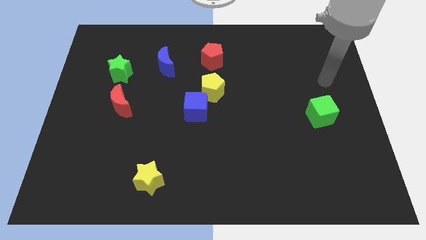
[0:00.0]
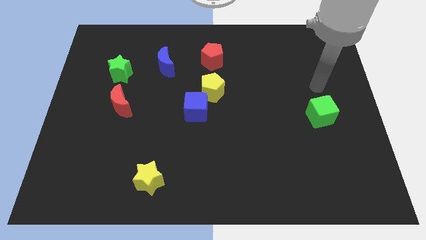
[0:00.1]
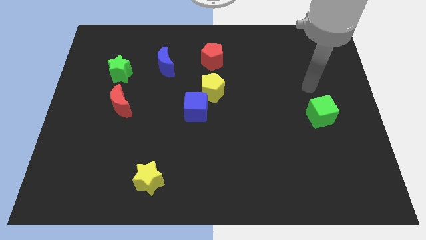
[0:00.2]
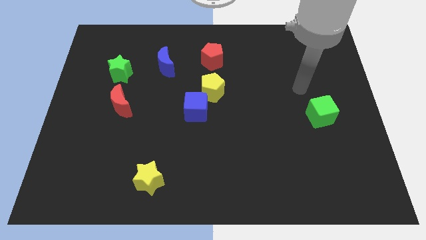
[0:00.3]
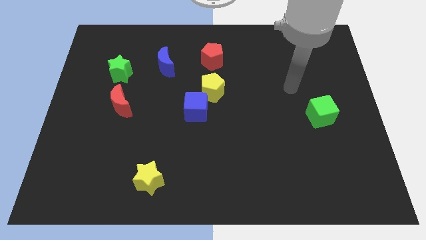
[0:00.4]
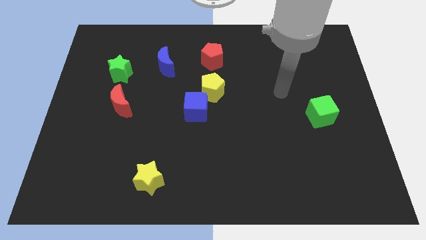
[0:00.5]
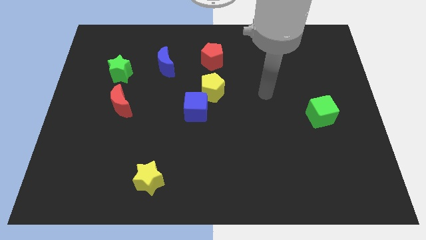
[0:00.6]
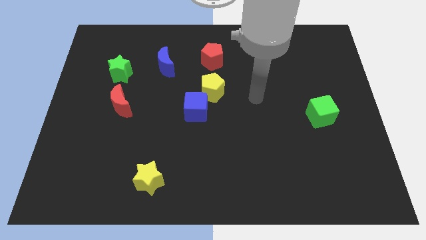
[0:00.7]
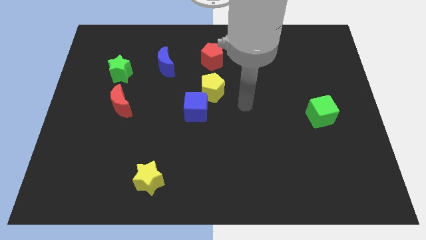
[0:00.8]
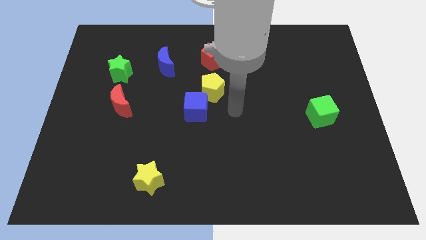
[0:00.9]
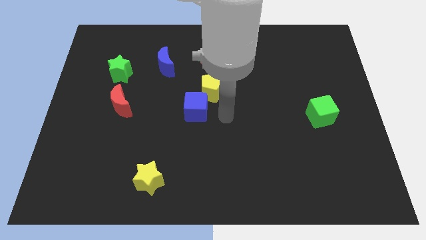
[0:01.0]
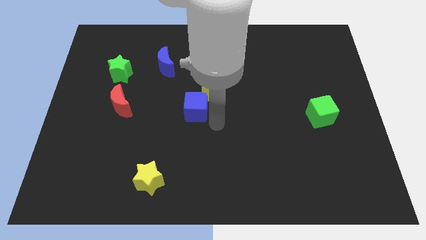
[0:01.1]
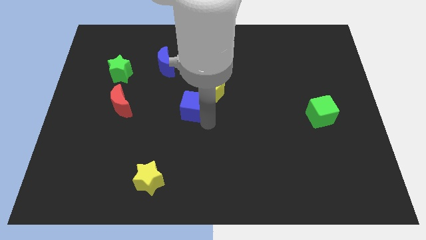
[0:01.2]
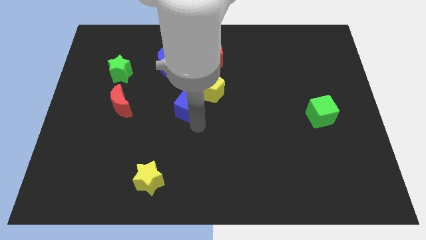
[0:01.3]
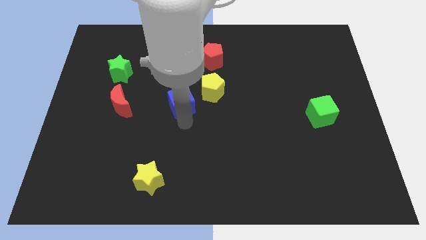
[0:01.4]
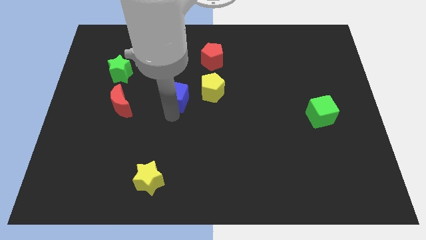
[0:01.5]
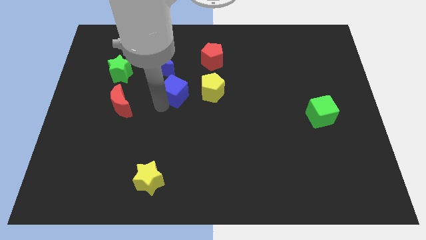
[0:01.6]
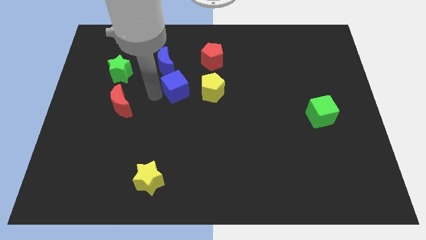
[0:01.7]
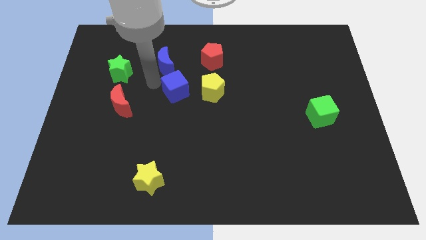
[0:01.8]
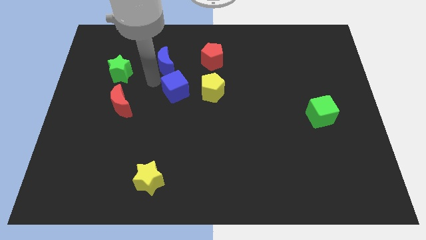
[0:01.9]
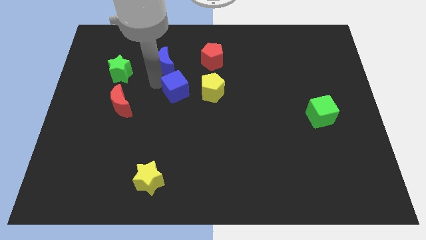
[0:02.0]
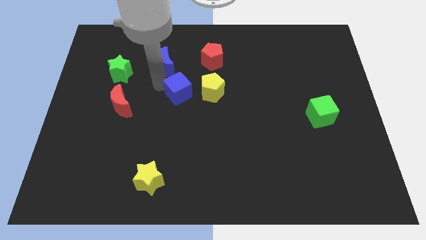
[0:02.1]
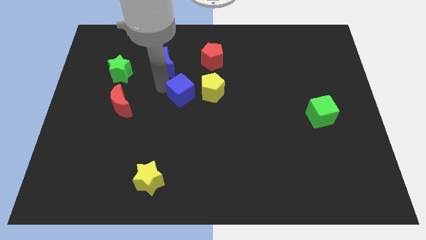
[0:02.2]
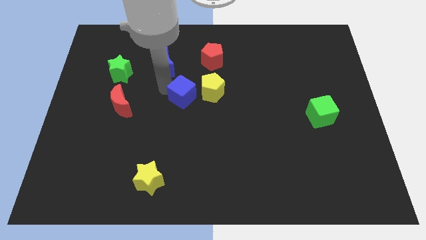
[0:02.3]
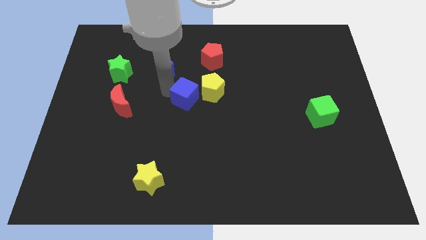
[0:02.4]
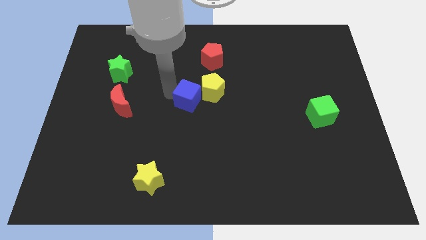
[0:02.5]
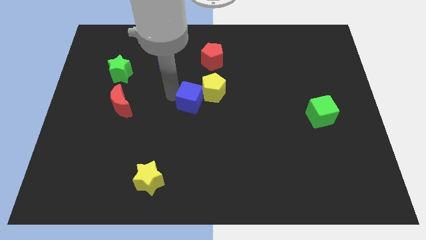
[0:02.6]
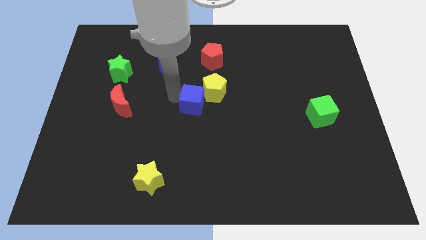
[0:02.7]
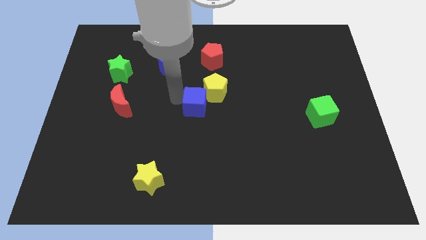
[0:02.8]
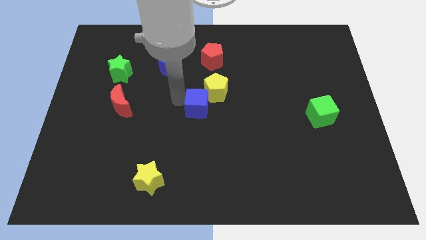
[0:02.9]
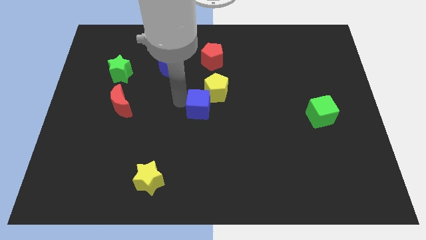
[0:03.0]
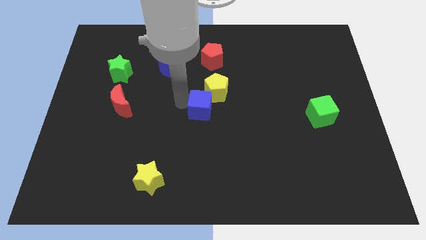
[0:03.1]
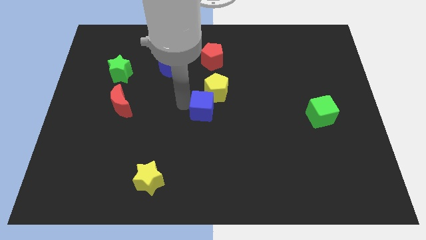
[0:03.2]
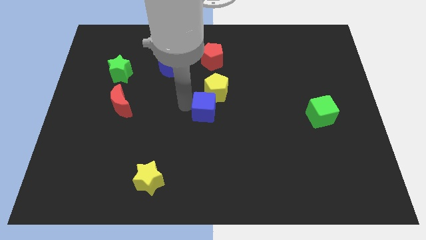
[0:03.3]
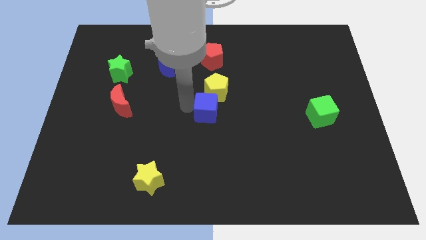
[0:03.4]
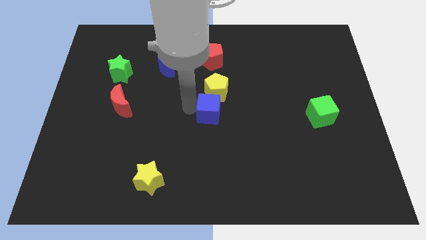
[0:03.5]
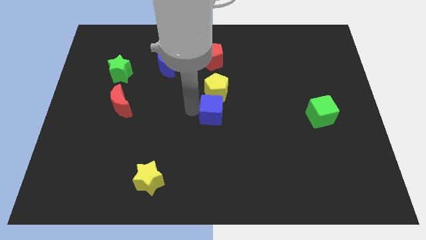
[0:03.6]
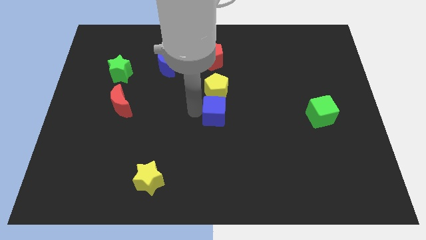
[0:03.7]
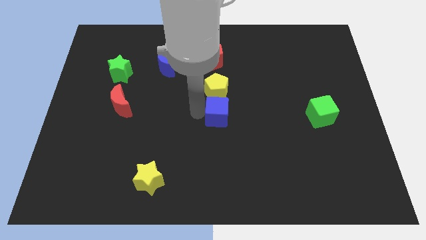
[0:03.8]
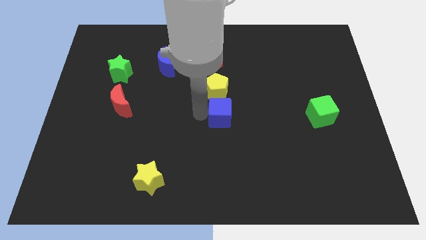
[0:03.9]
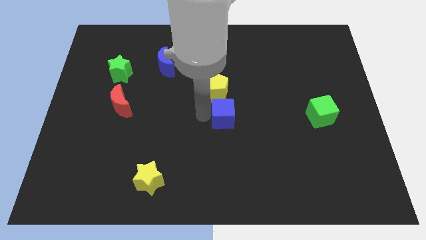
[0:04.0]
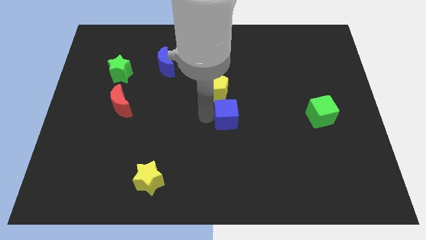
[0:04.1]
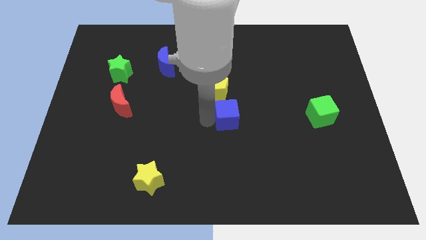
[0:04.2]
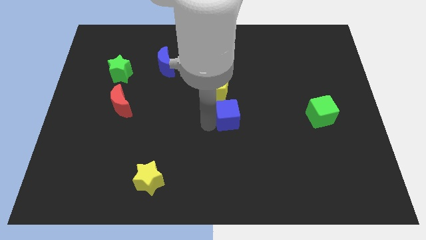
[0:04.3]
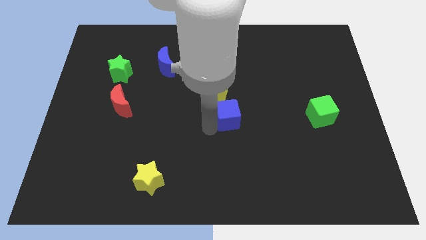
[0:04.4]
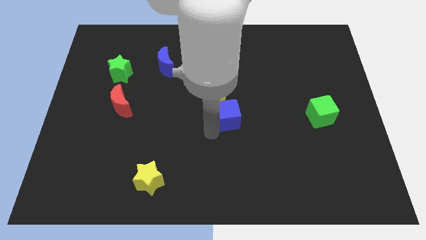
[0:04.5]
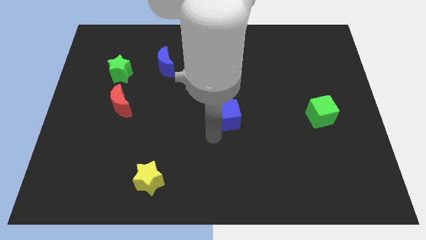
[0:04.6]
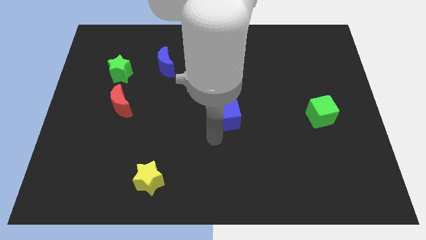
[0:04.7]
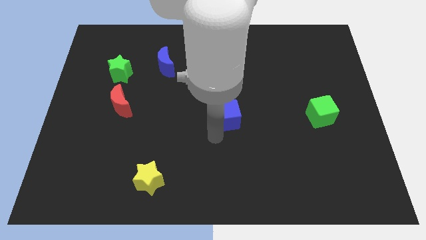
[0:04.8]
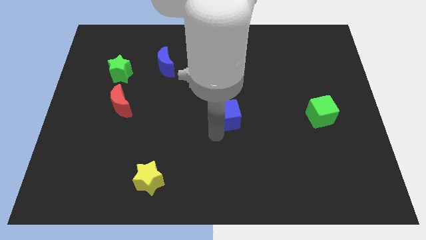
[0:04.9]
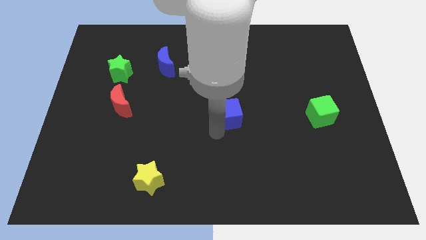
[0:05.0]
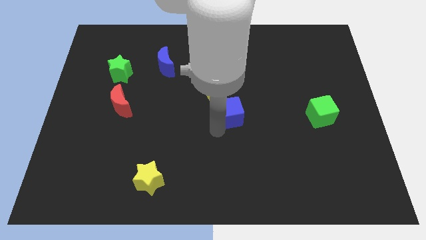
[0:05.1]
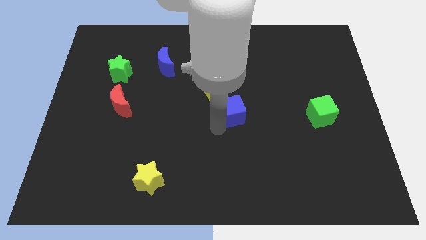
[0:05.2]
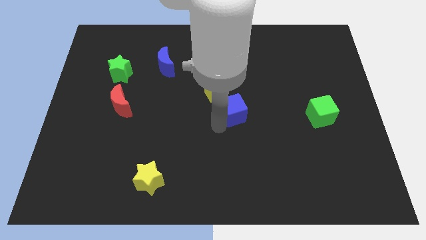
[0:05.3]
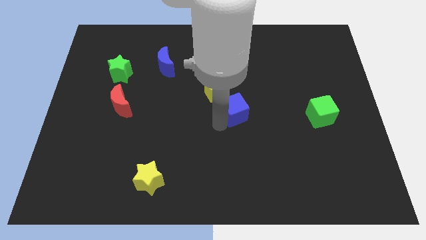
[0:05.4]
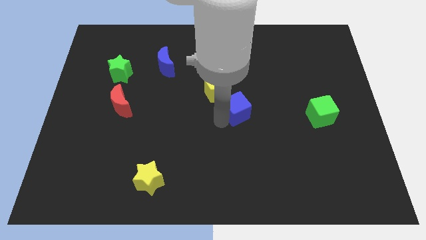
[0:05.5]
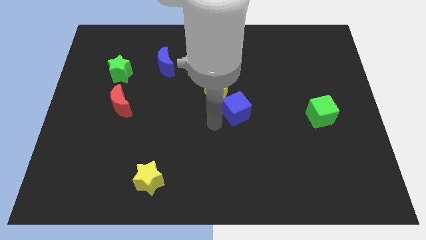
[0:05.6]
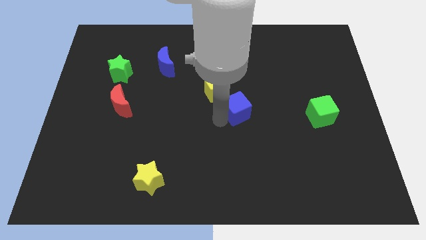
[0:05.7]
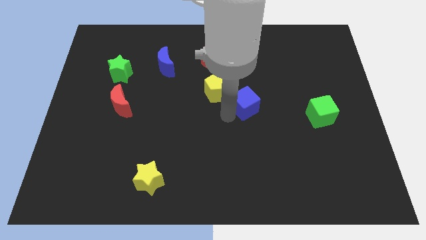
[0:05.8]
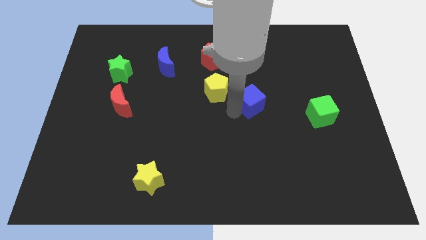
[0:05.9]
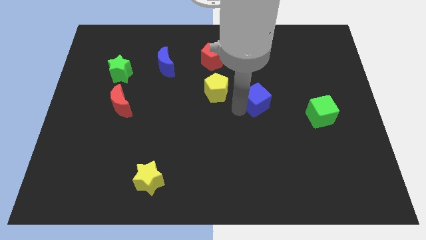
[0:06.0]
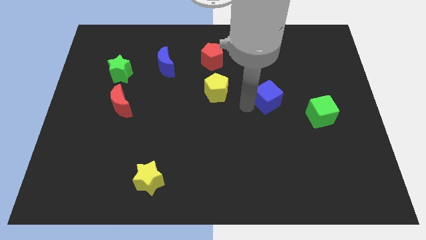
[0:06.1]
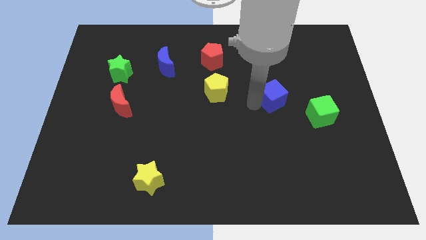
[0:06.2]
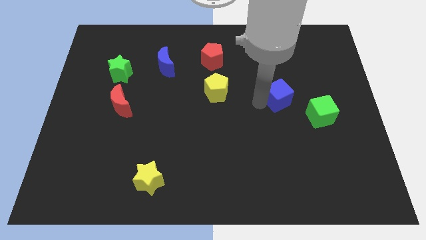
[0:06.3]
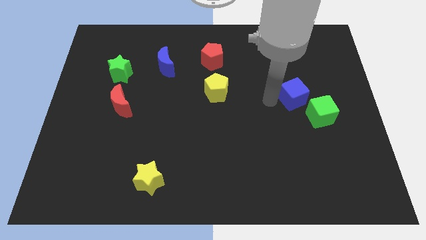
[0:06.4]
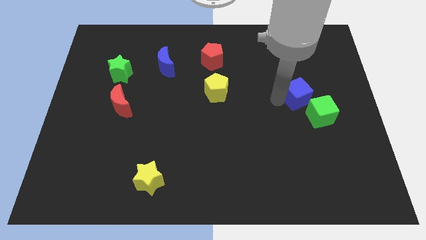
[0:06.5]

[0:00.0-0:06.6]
move the blue cube above the green cube

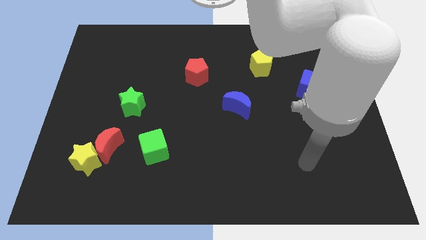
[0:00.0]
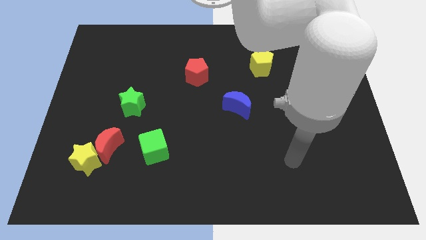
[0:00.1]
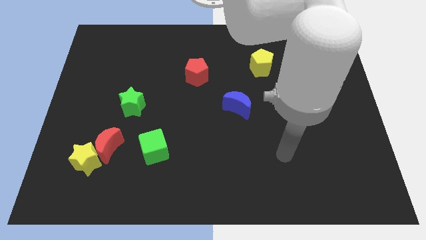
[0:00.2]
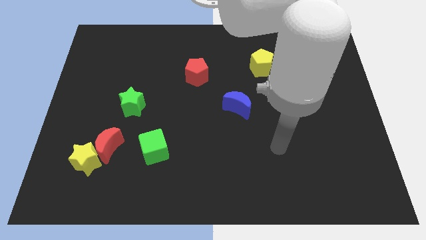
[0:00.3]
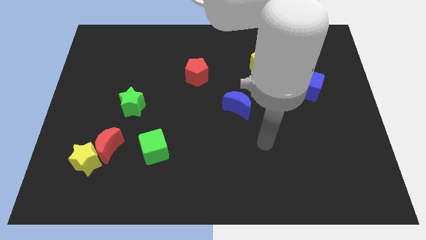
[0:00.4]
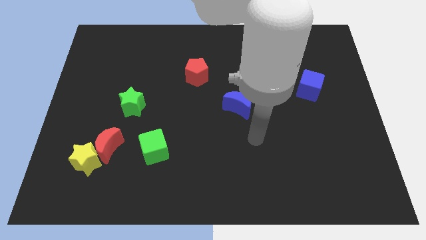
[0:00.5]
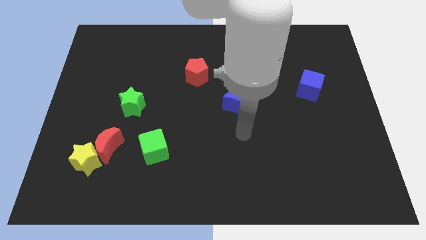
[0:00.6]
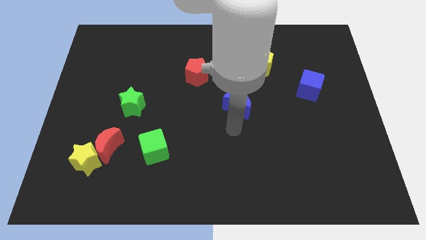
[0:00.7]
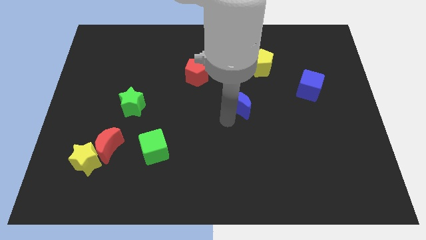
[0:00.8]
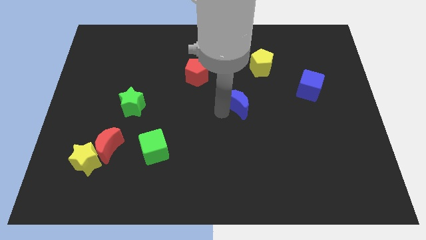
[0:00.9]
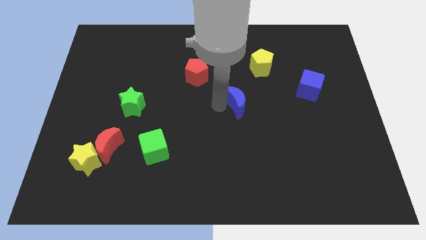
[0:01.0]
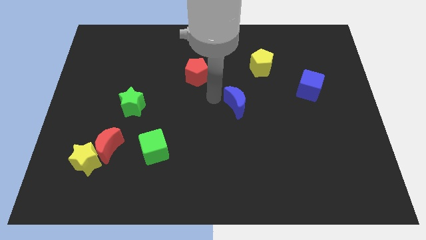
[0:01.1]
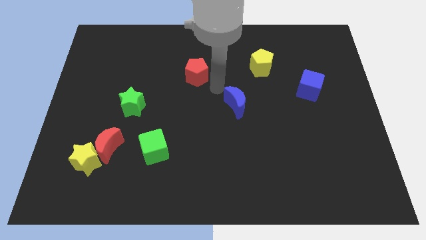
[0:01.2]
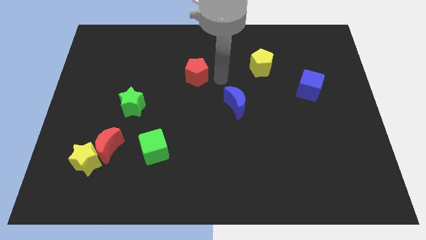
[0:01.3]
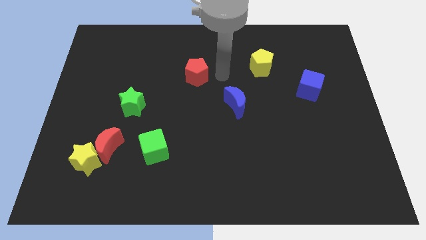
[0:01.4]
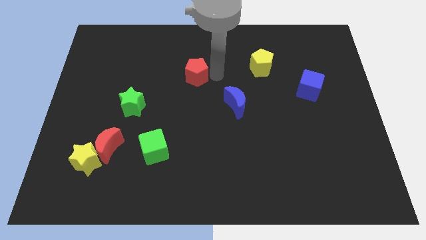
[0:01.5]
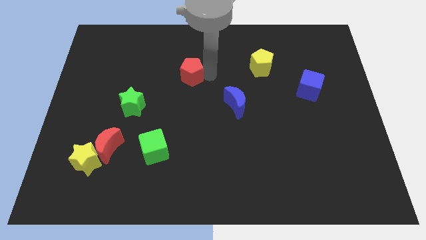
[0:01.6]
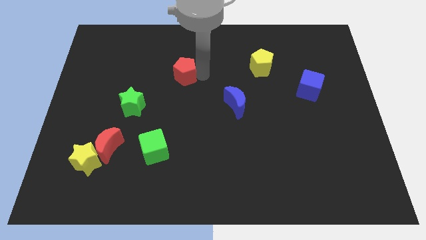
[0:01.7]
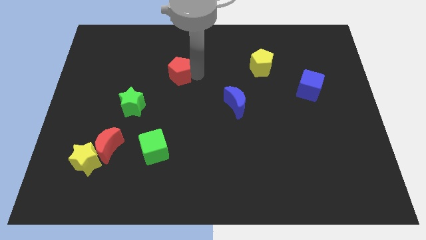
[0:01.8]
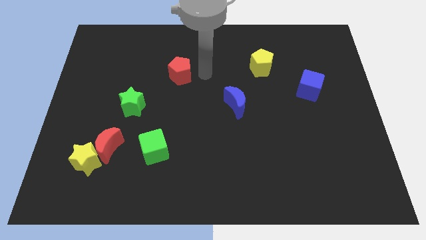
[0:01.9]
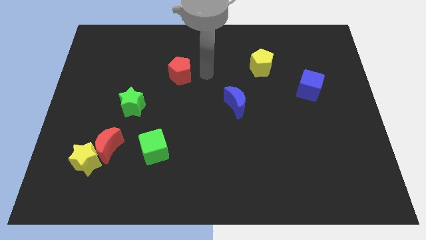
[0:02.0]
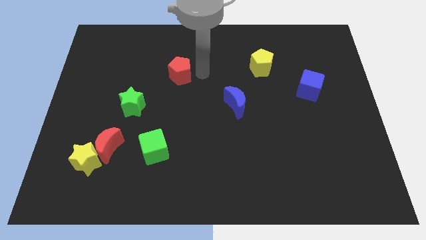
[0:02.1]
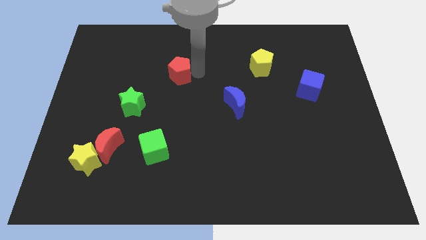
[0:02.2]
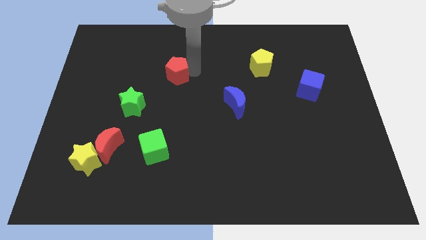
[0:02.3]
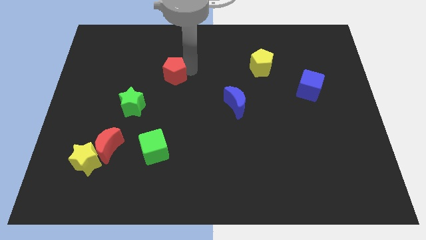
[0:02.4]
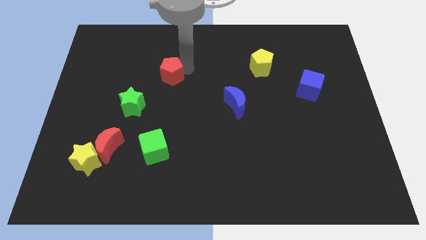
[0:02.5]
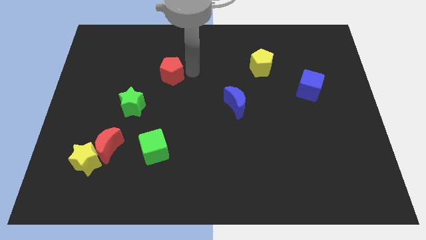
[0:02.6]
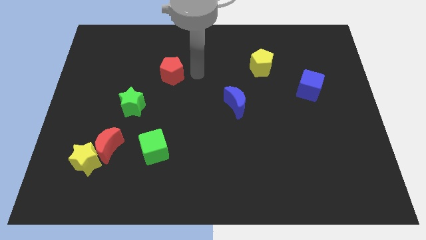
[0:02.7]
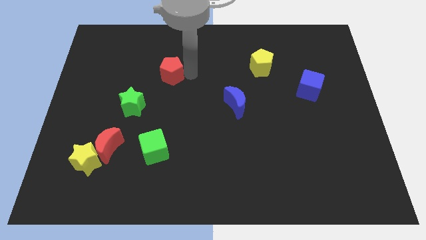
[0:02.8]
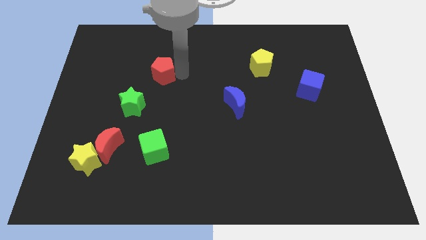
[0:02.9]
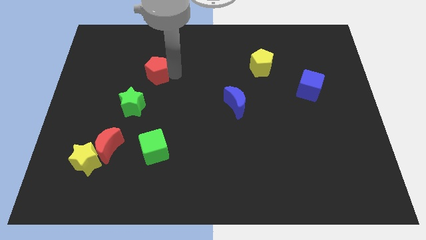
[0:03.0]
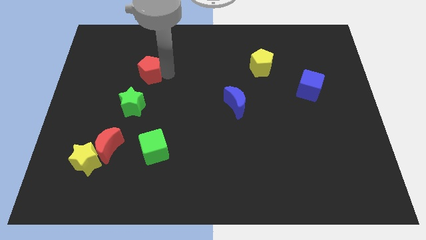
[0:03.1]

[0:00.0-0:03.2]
push the red pentagon above the green star
